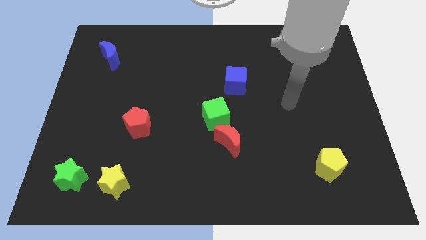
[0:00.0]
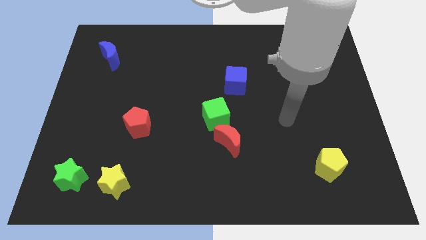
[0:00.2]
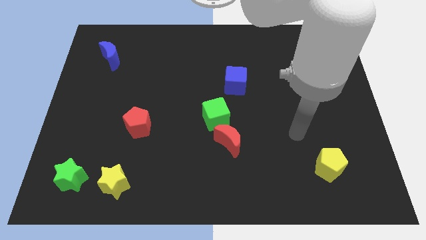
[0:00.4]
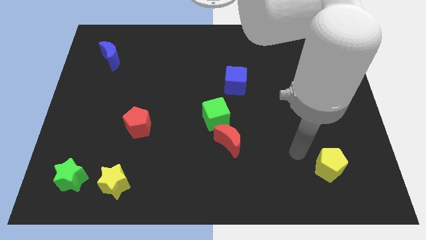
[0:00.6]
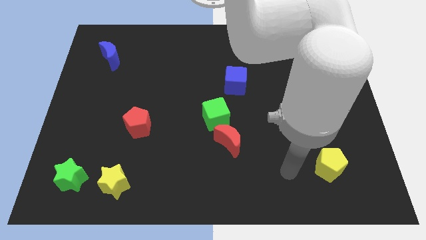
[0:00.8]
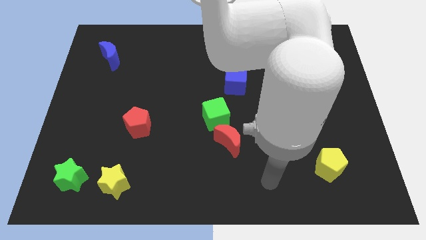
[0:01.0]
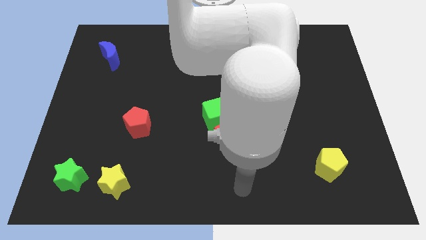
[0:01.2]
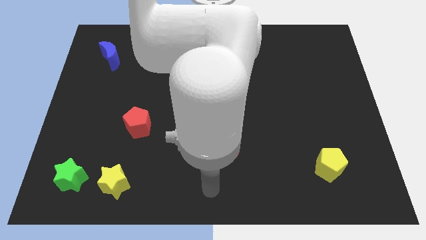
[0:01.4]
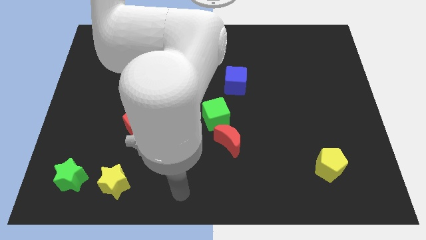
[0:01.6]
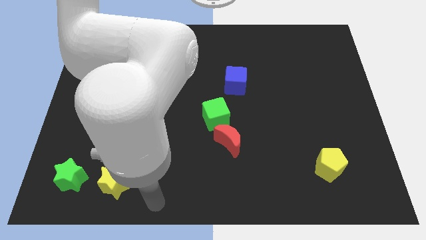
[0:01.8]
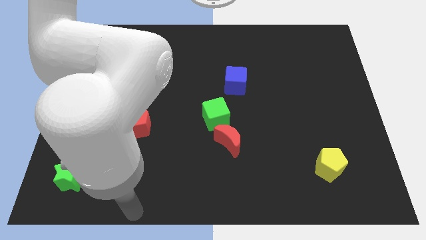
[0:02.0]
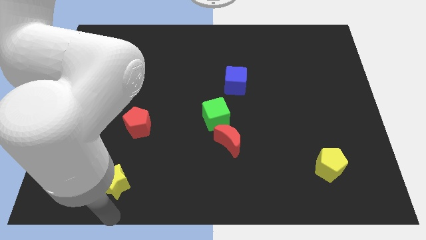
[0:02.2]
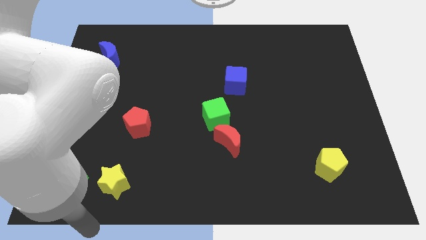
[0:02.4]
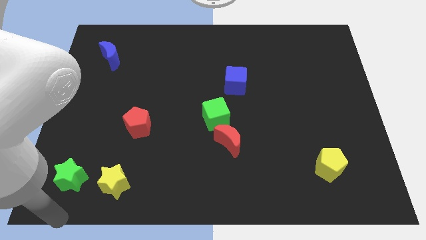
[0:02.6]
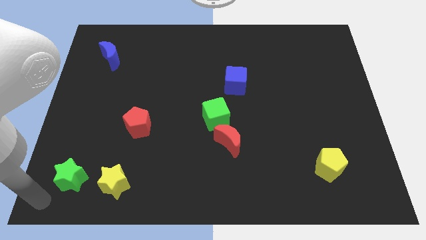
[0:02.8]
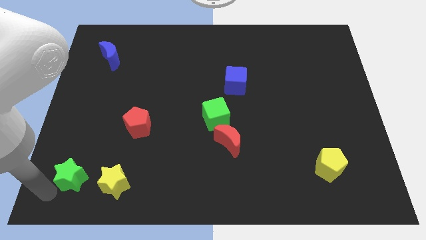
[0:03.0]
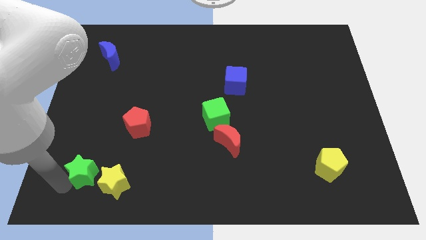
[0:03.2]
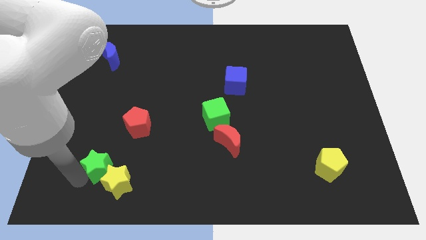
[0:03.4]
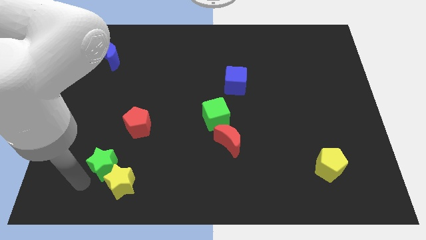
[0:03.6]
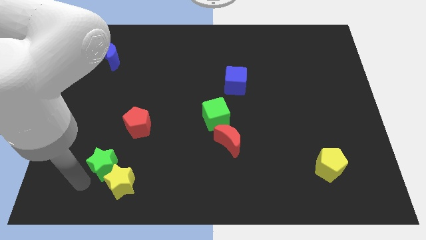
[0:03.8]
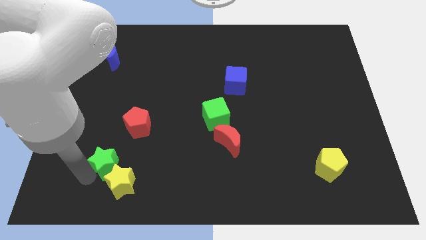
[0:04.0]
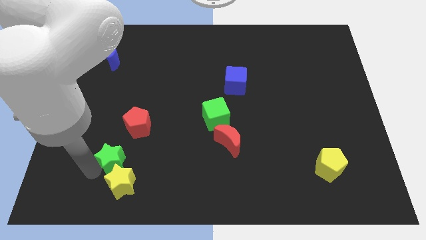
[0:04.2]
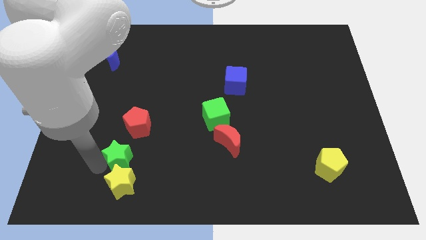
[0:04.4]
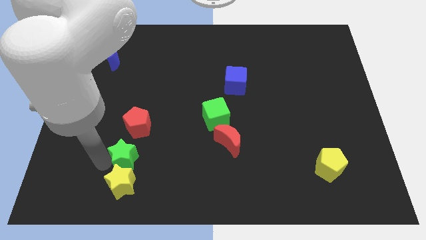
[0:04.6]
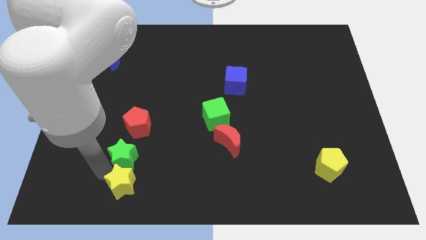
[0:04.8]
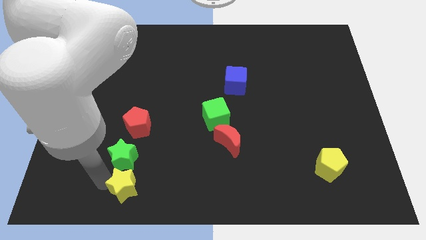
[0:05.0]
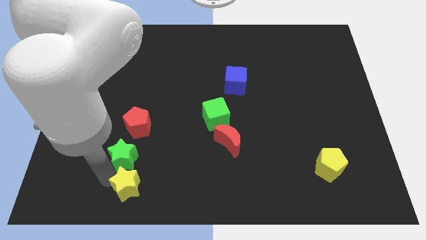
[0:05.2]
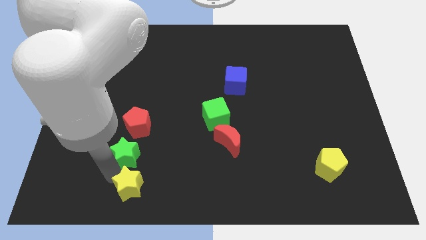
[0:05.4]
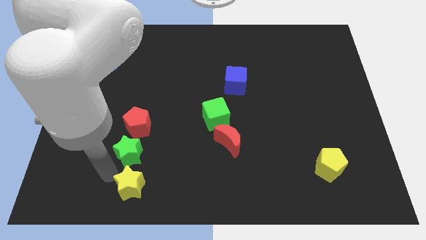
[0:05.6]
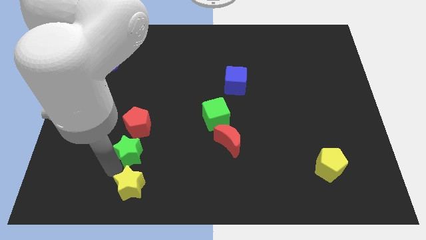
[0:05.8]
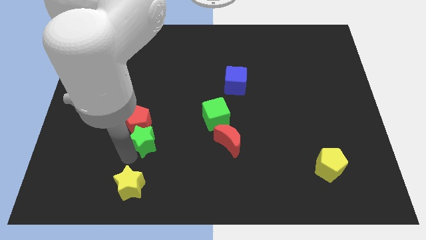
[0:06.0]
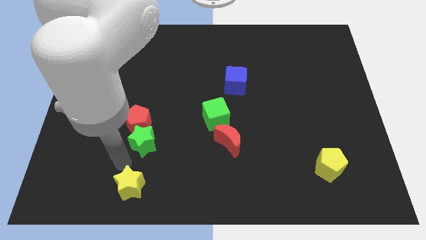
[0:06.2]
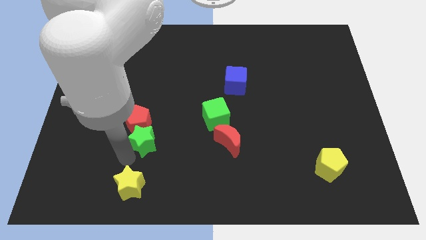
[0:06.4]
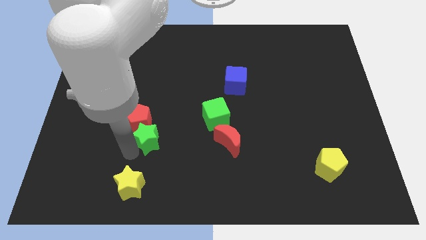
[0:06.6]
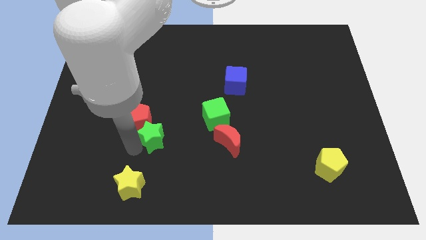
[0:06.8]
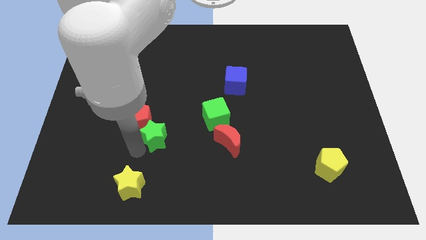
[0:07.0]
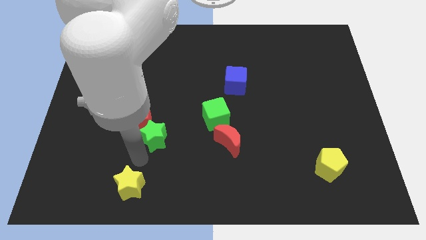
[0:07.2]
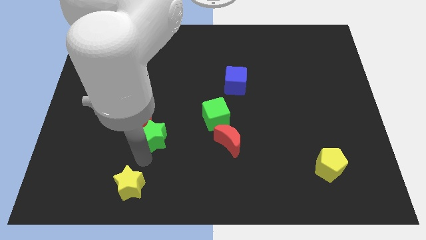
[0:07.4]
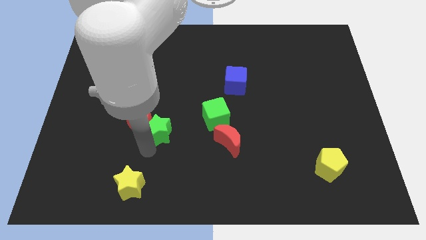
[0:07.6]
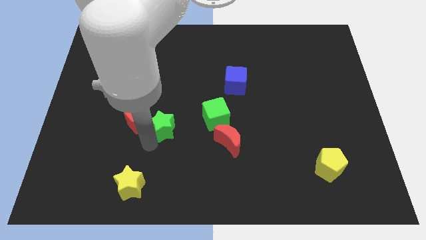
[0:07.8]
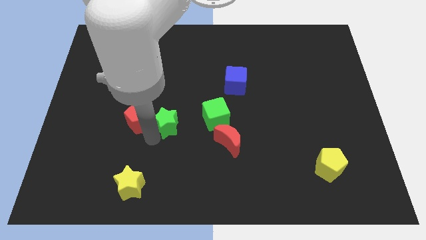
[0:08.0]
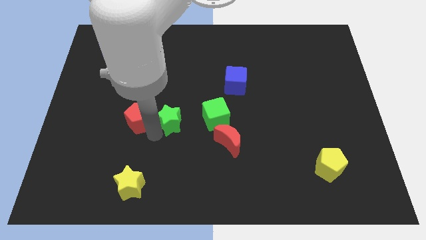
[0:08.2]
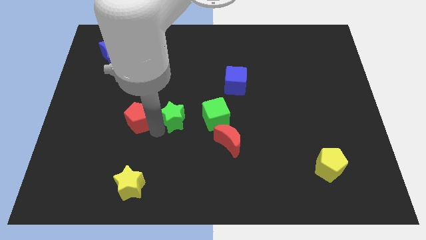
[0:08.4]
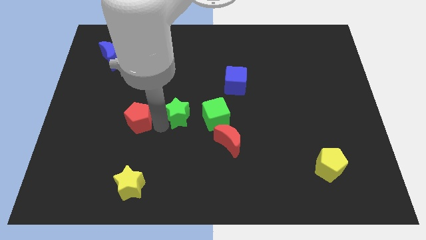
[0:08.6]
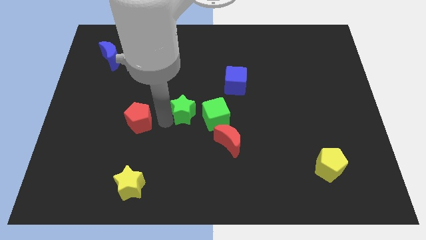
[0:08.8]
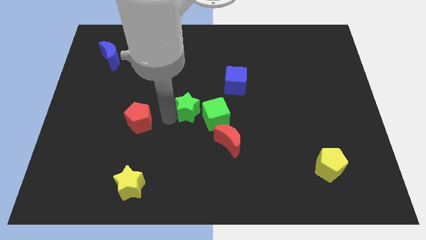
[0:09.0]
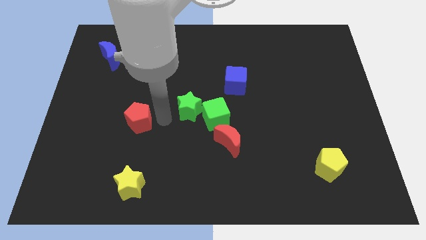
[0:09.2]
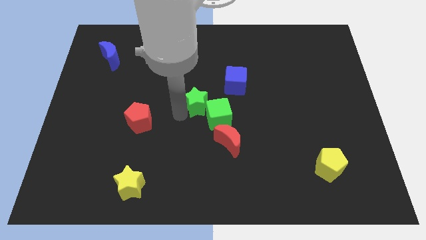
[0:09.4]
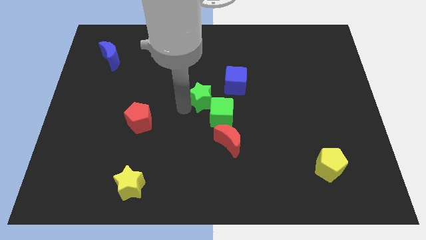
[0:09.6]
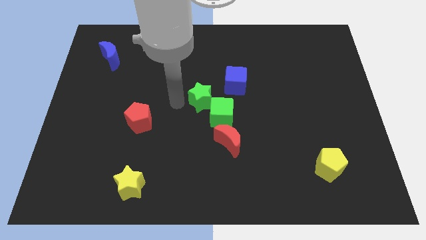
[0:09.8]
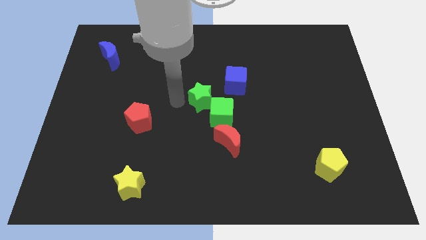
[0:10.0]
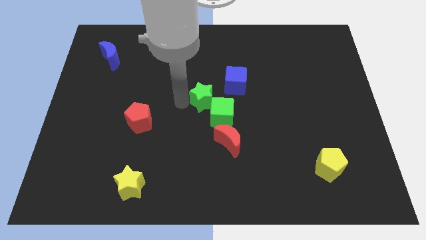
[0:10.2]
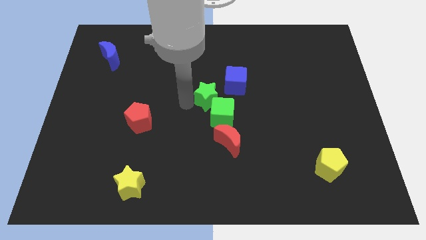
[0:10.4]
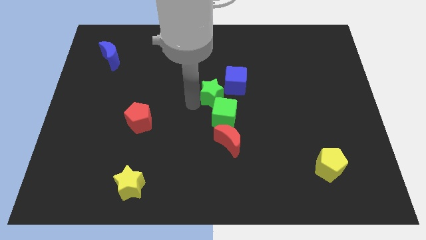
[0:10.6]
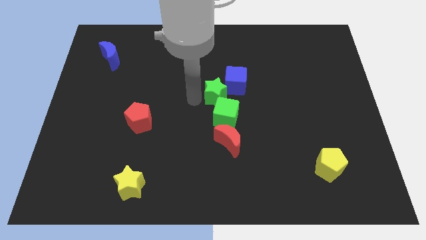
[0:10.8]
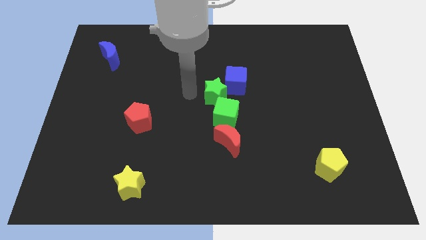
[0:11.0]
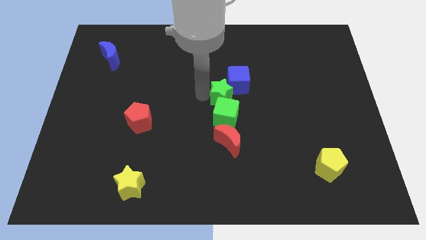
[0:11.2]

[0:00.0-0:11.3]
put the green star to the top right side of the green cube
